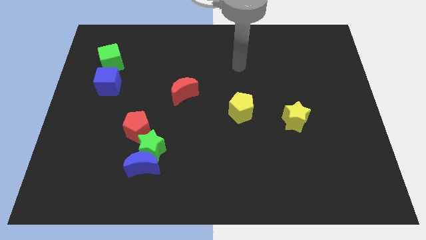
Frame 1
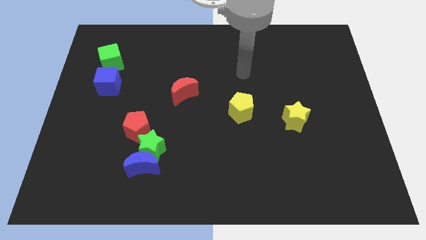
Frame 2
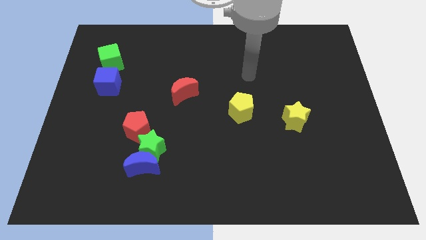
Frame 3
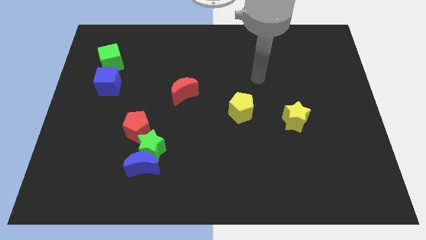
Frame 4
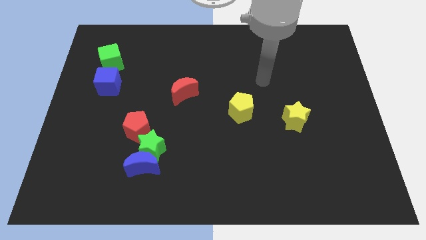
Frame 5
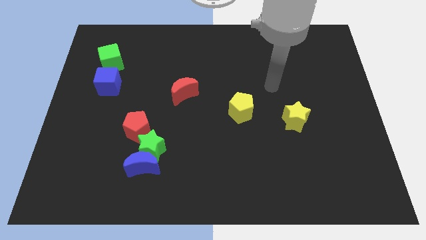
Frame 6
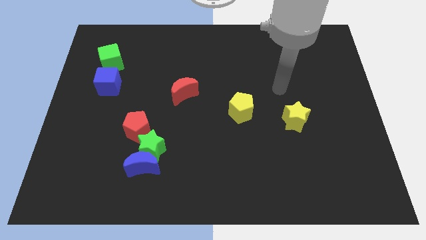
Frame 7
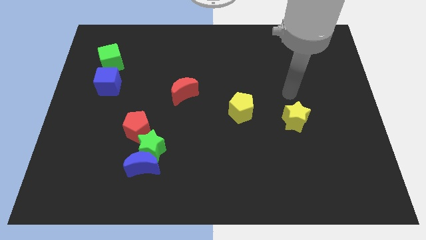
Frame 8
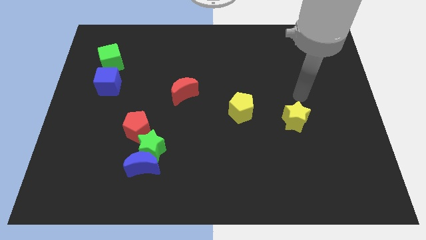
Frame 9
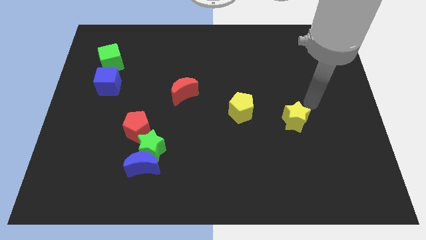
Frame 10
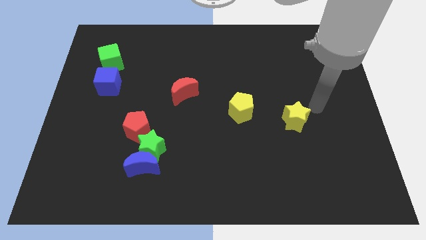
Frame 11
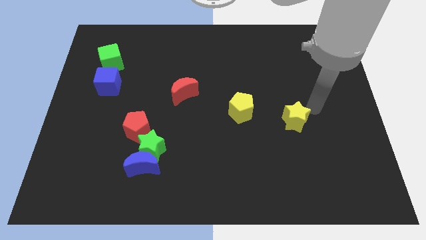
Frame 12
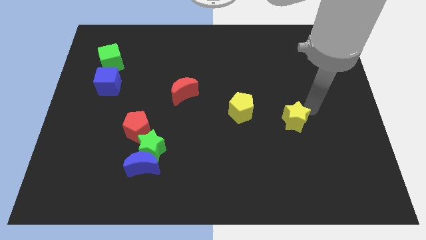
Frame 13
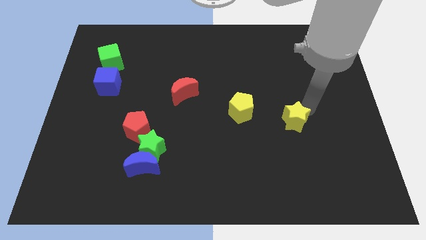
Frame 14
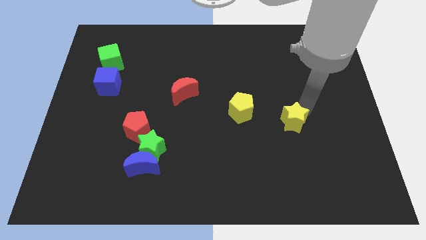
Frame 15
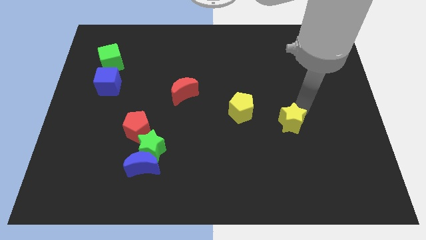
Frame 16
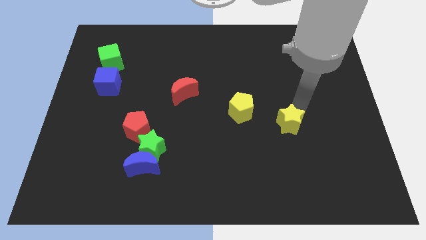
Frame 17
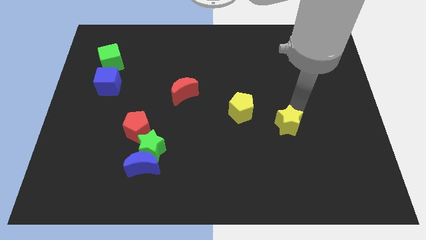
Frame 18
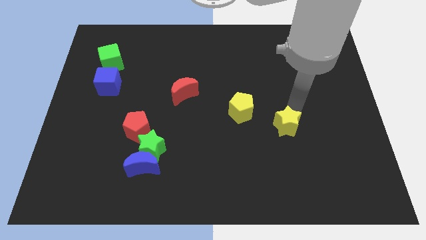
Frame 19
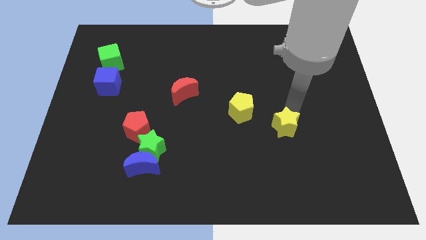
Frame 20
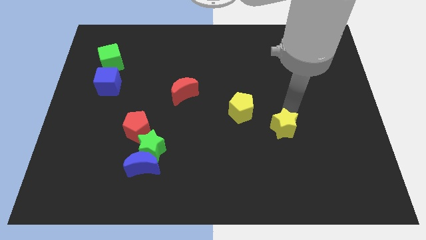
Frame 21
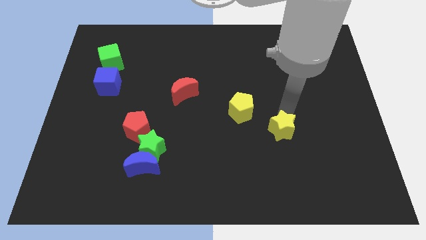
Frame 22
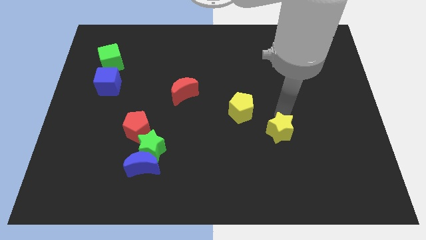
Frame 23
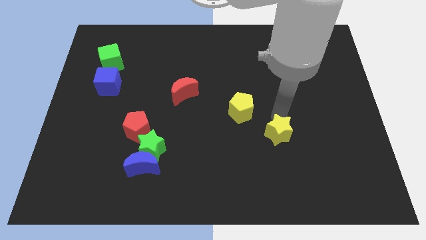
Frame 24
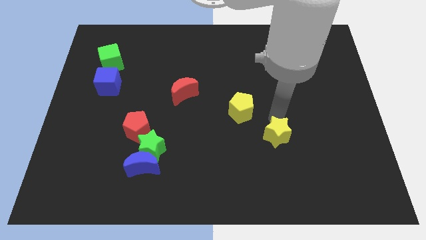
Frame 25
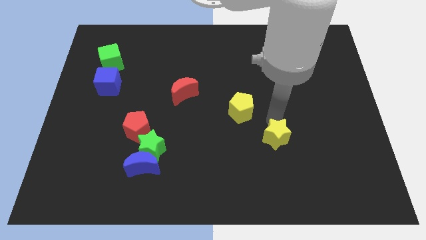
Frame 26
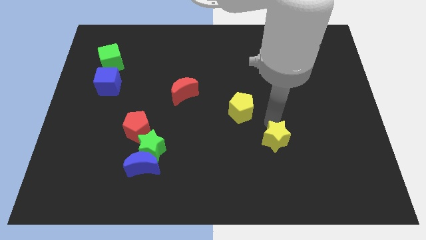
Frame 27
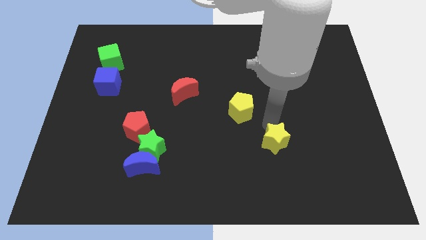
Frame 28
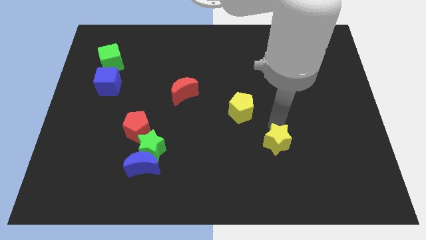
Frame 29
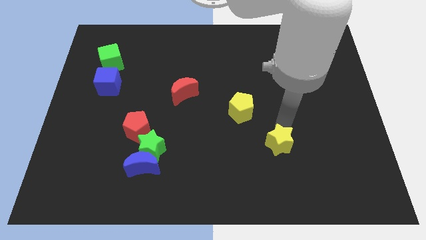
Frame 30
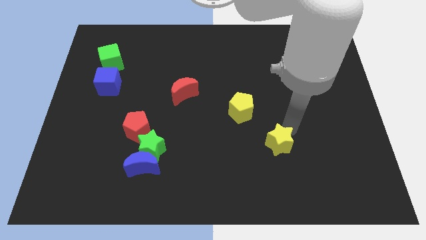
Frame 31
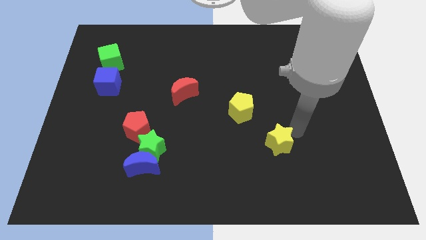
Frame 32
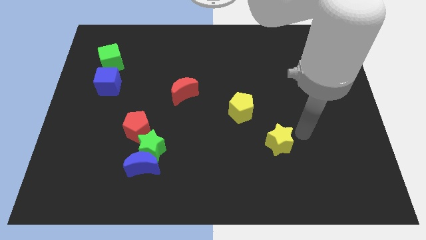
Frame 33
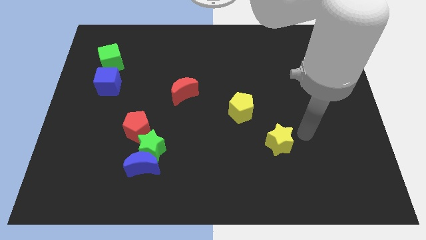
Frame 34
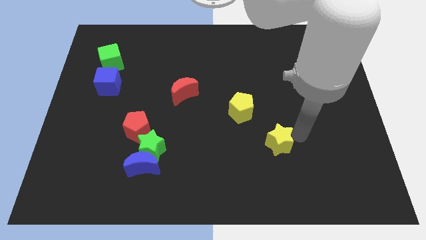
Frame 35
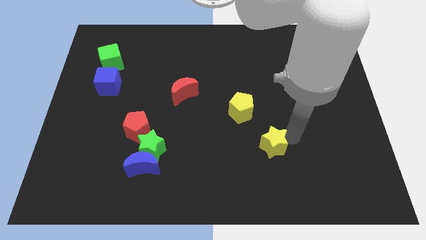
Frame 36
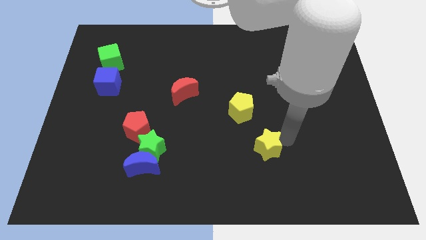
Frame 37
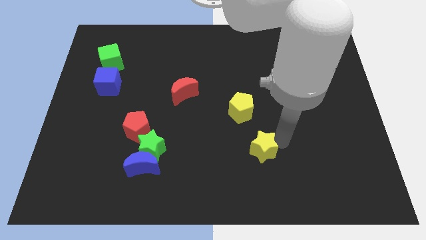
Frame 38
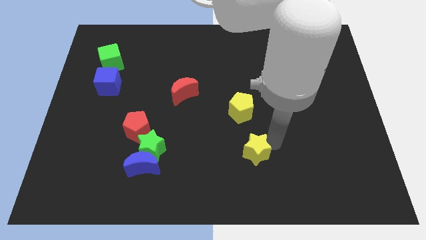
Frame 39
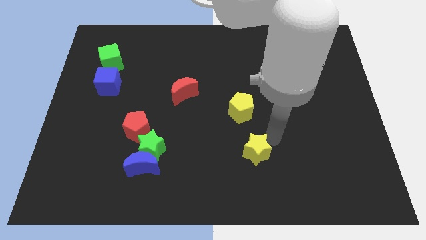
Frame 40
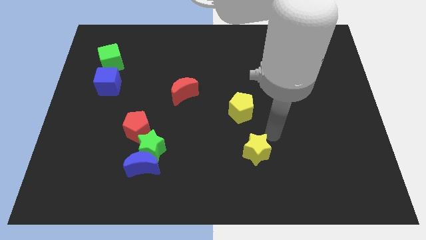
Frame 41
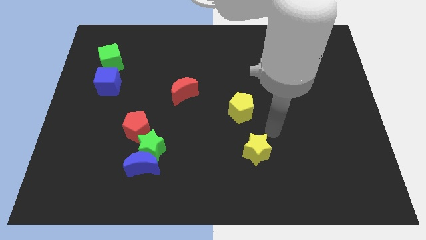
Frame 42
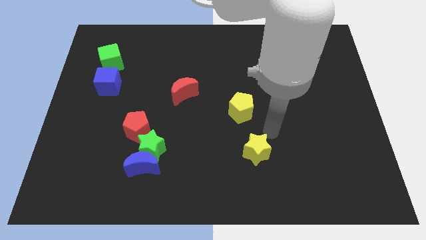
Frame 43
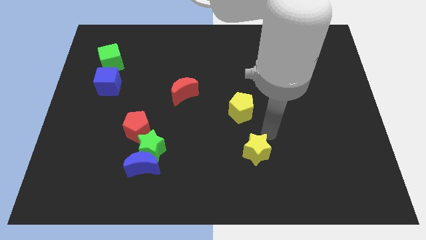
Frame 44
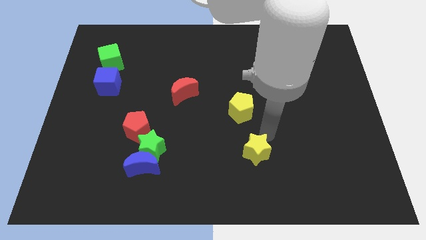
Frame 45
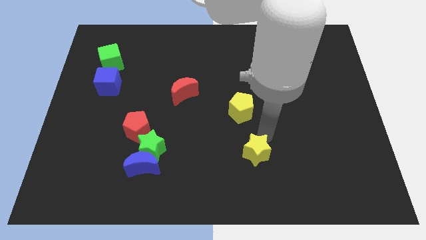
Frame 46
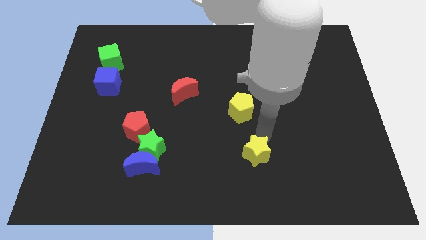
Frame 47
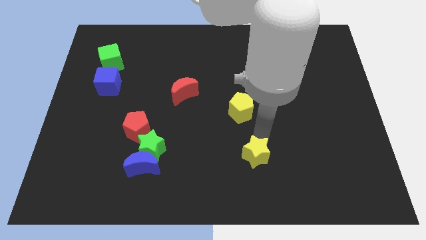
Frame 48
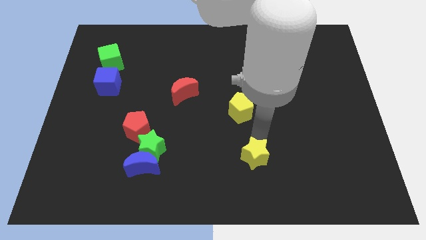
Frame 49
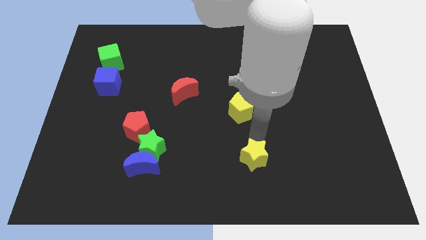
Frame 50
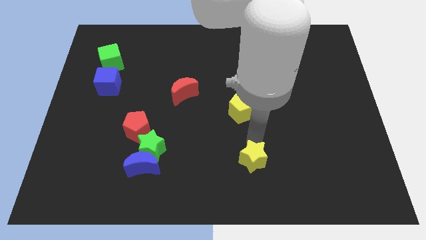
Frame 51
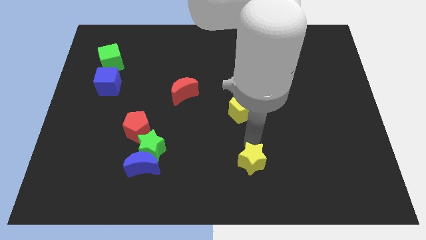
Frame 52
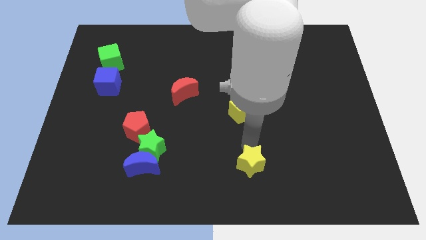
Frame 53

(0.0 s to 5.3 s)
push the yellow star to the bottom

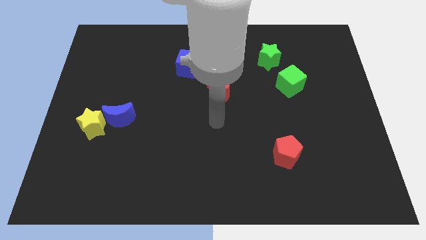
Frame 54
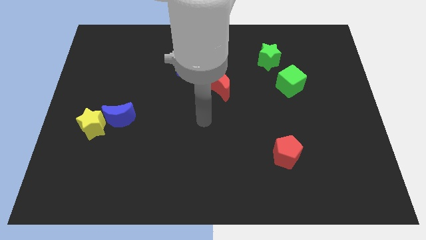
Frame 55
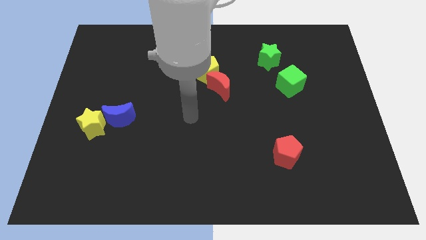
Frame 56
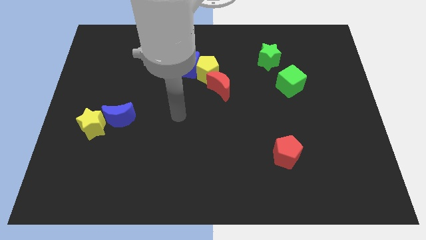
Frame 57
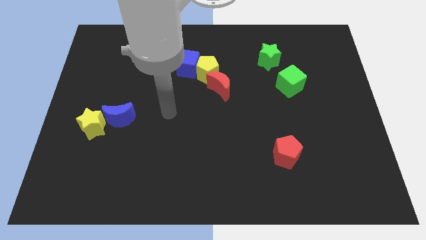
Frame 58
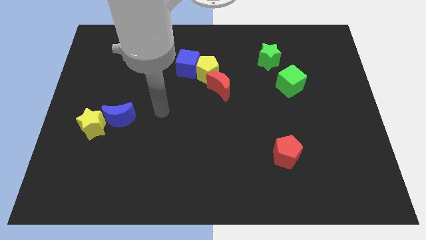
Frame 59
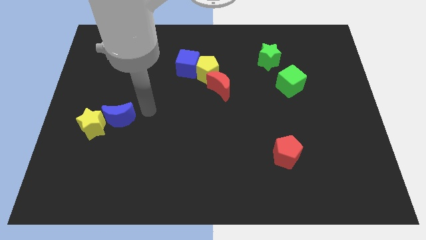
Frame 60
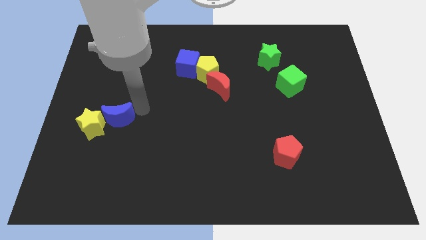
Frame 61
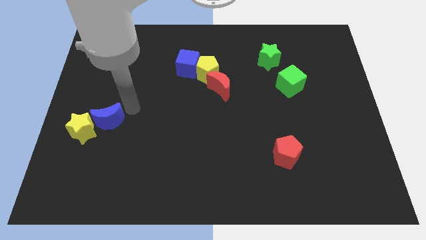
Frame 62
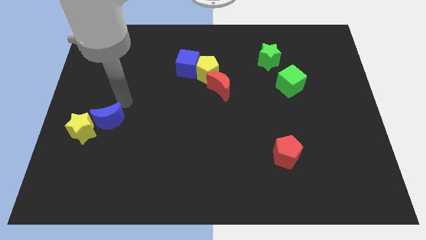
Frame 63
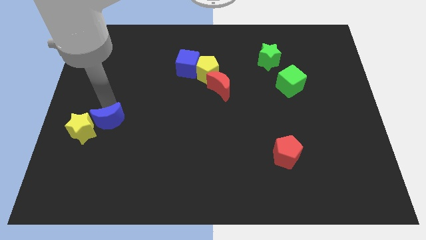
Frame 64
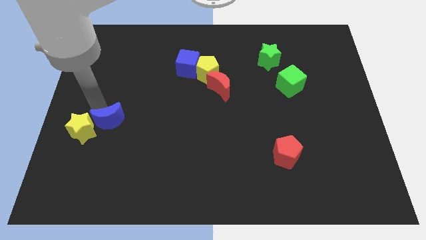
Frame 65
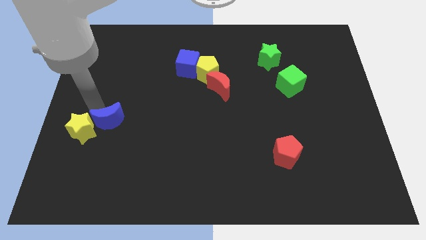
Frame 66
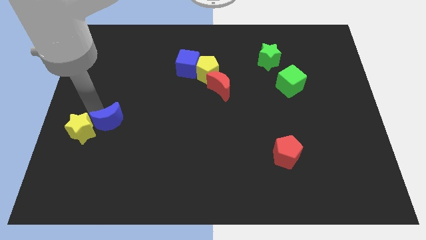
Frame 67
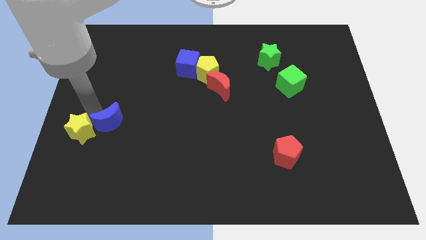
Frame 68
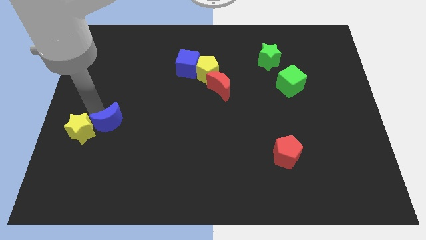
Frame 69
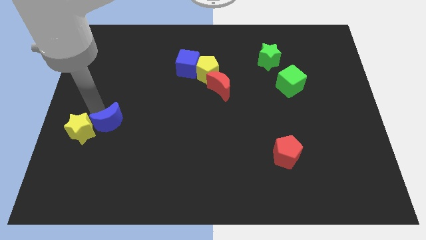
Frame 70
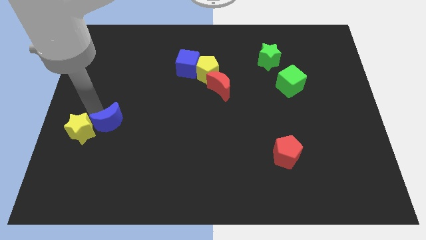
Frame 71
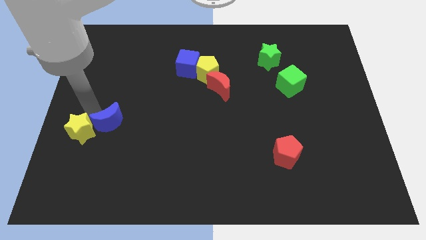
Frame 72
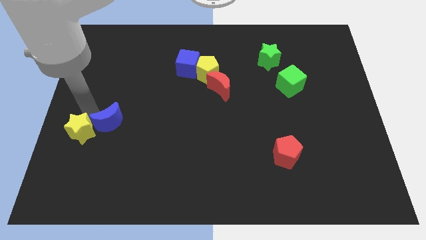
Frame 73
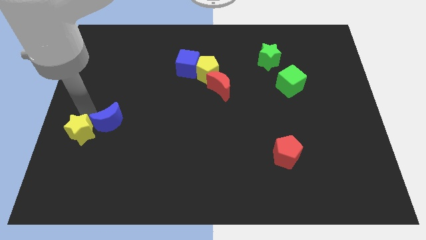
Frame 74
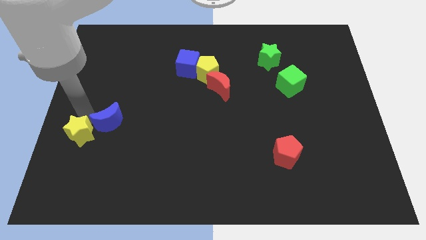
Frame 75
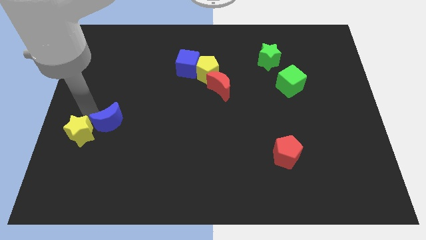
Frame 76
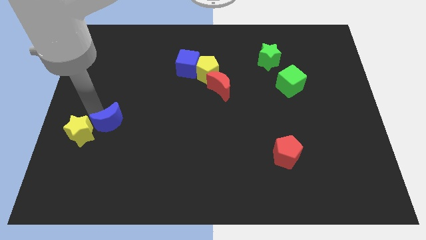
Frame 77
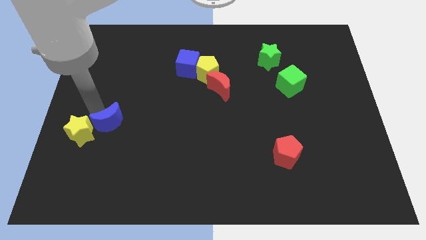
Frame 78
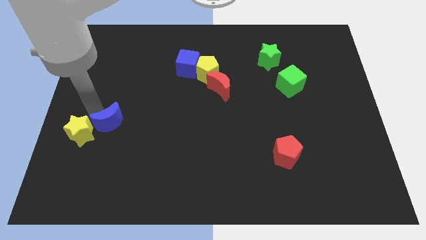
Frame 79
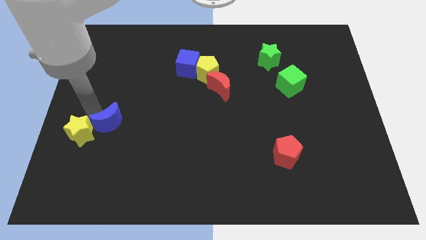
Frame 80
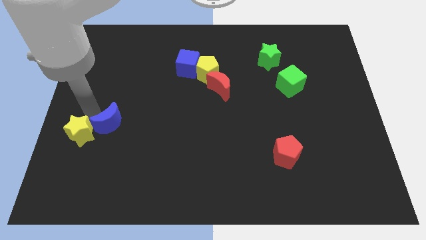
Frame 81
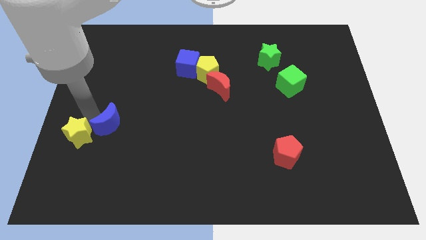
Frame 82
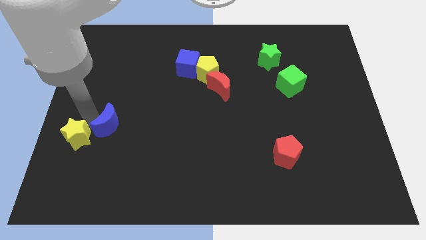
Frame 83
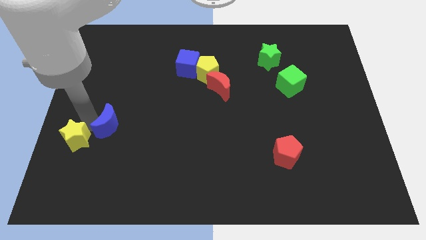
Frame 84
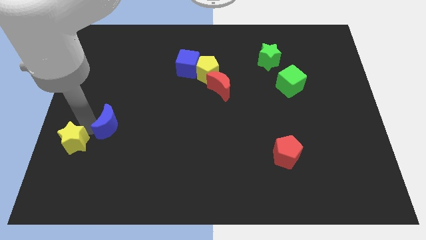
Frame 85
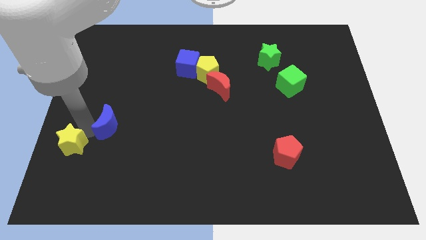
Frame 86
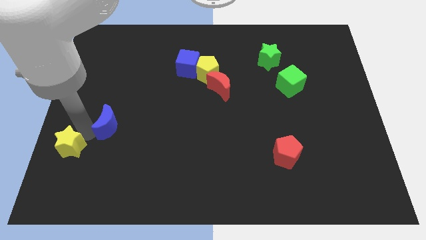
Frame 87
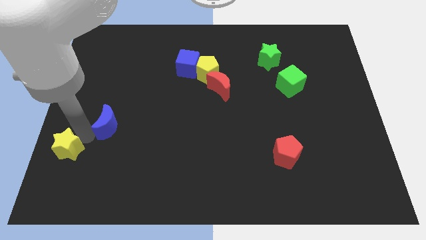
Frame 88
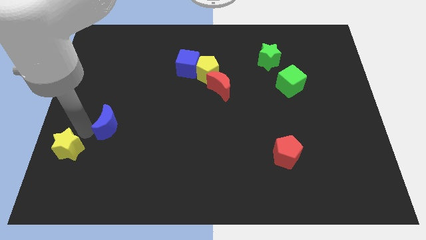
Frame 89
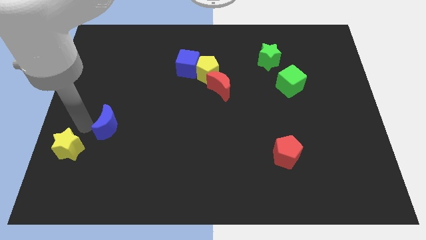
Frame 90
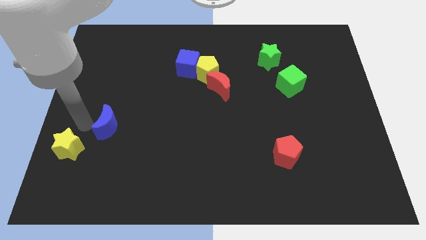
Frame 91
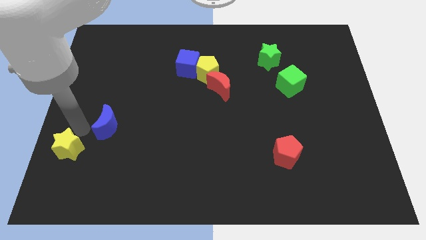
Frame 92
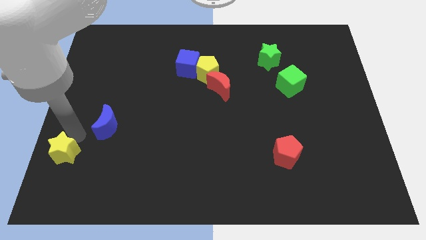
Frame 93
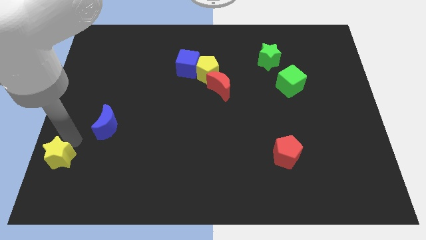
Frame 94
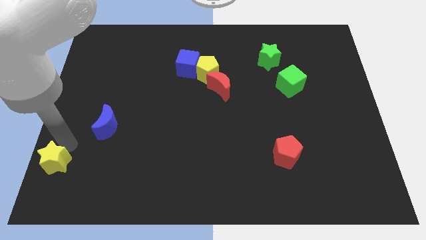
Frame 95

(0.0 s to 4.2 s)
put the yellow star to the bottom left
